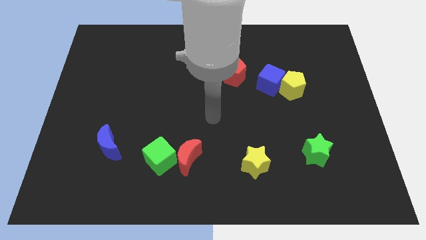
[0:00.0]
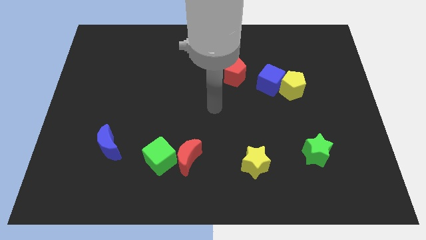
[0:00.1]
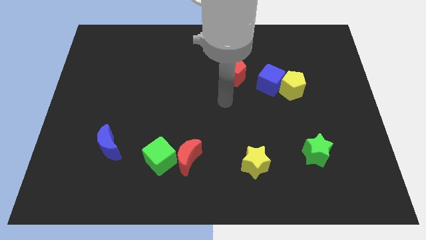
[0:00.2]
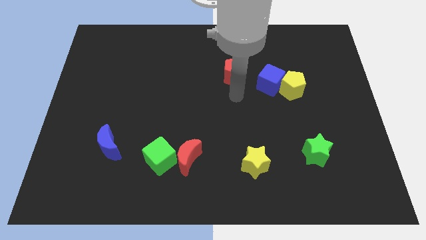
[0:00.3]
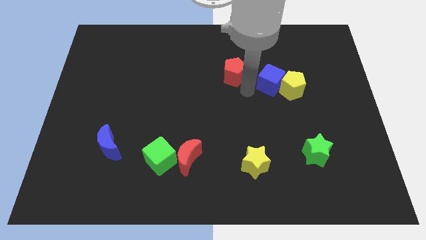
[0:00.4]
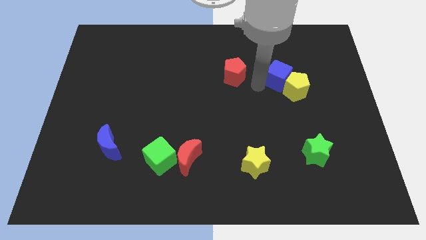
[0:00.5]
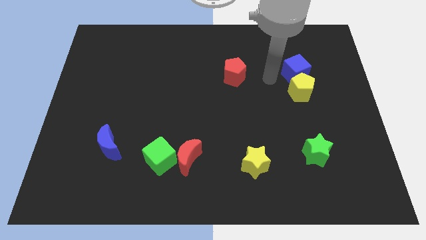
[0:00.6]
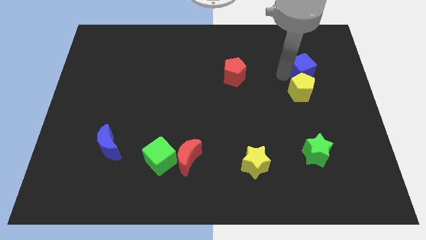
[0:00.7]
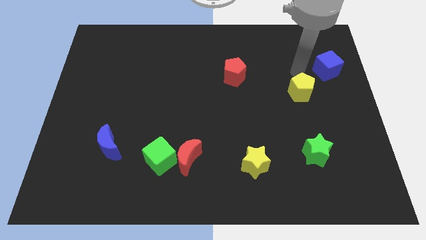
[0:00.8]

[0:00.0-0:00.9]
separate the yellow pentagon from the blue cube

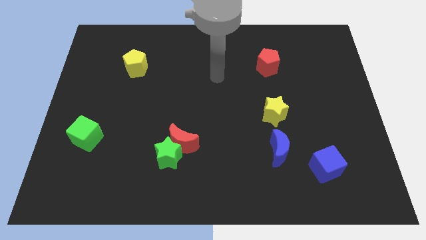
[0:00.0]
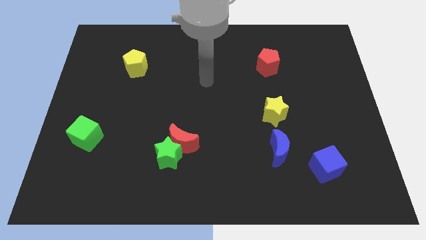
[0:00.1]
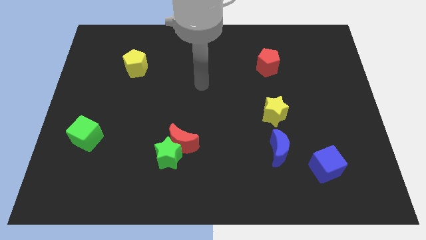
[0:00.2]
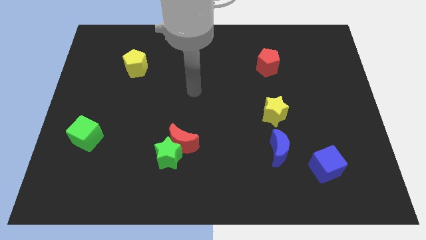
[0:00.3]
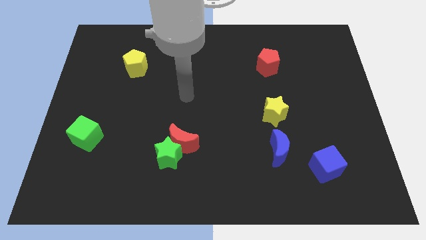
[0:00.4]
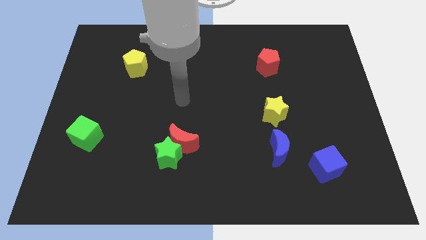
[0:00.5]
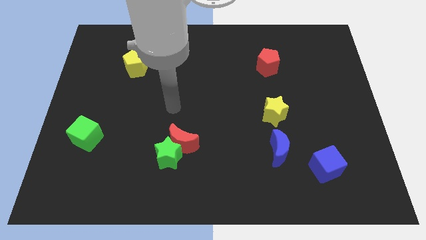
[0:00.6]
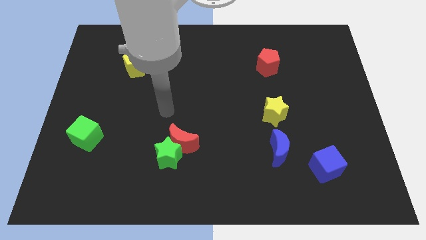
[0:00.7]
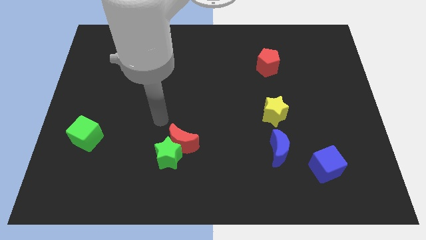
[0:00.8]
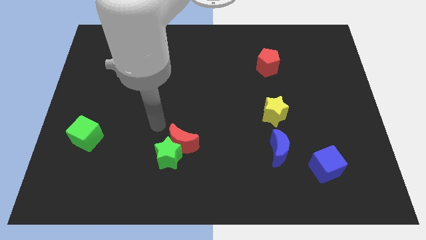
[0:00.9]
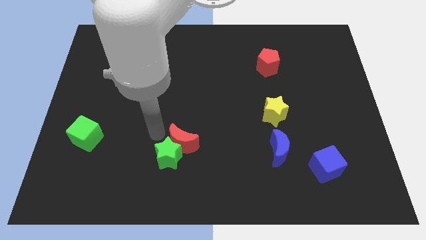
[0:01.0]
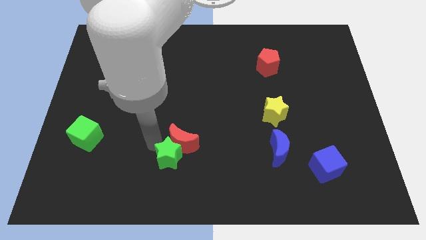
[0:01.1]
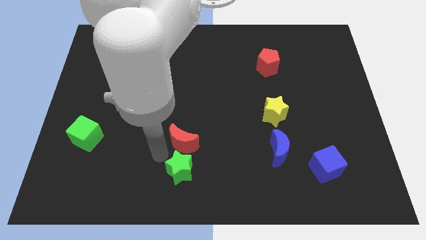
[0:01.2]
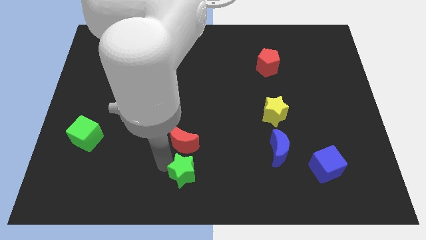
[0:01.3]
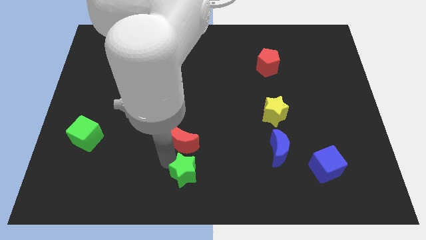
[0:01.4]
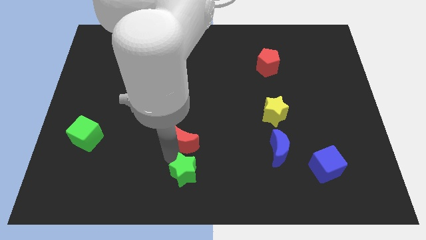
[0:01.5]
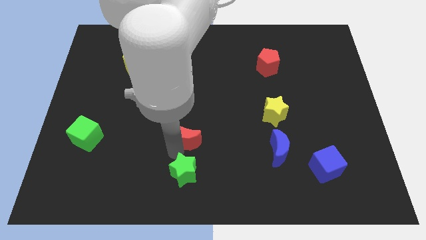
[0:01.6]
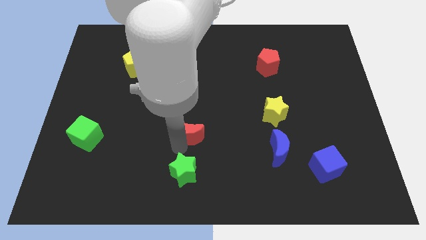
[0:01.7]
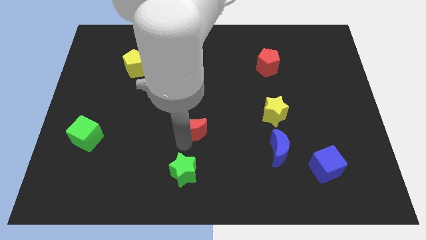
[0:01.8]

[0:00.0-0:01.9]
pull the red moon apart from the green star

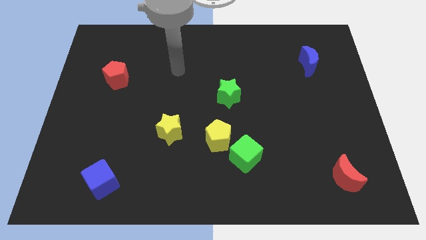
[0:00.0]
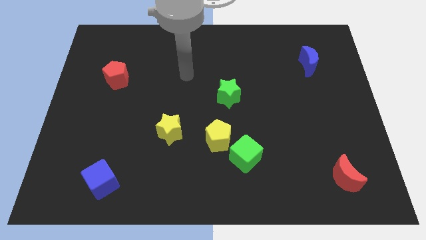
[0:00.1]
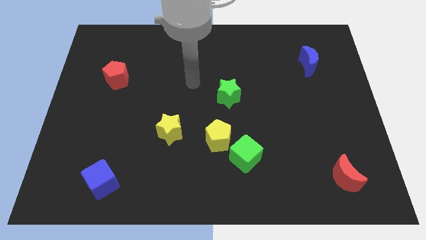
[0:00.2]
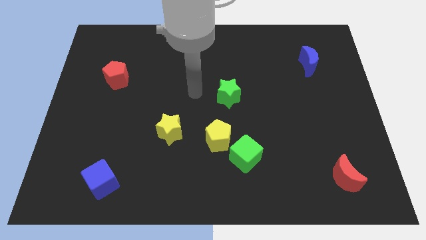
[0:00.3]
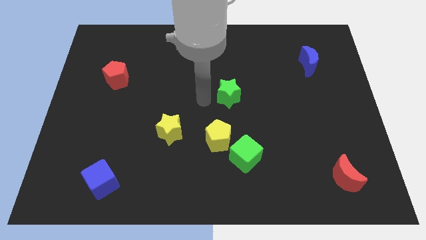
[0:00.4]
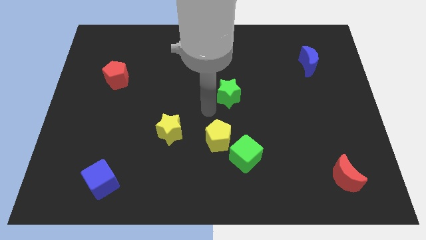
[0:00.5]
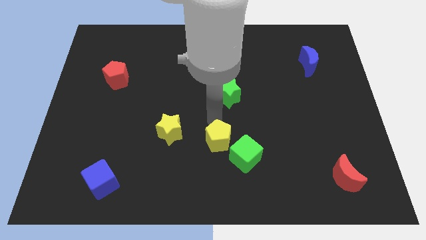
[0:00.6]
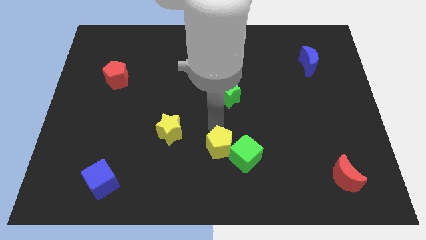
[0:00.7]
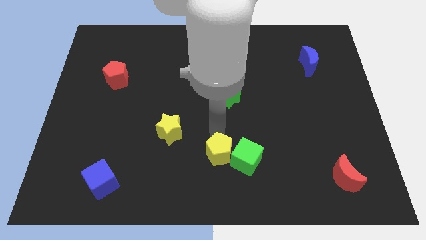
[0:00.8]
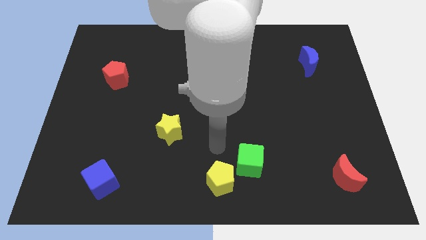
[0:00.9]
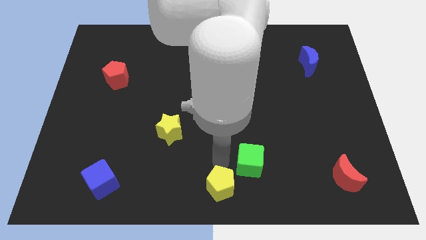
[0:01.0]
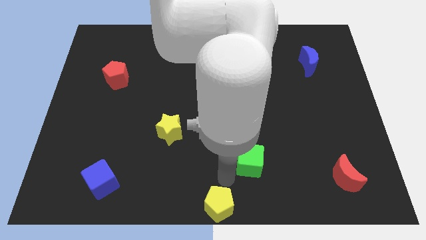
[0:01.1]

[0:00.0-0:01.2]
pull the green cube apart from the yellow pentagon

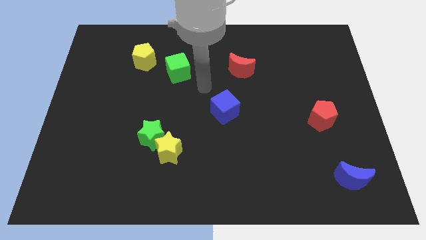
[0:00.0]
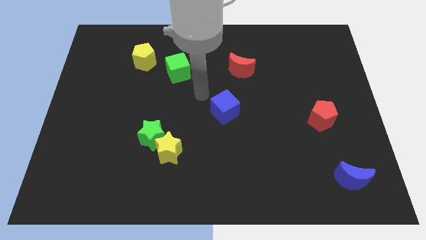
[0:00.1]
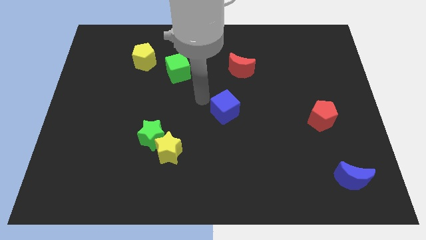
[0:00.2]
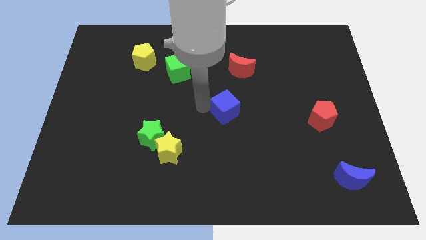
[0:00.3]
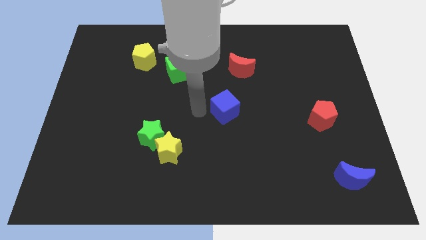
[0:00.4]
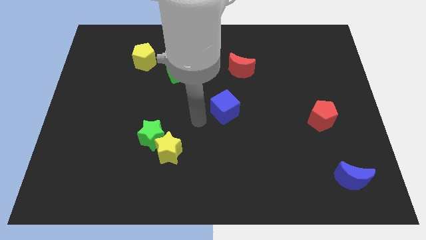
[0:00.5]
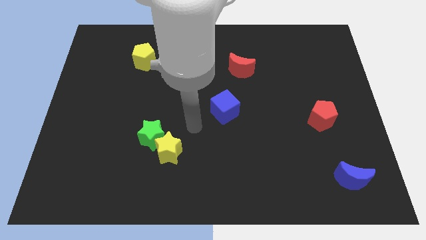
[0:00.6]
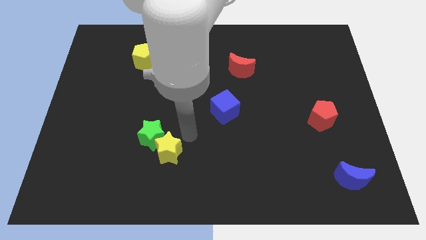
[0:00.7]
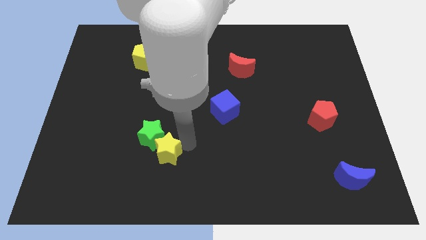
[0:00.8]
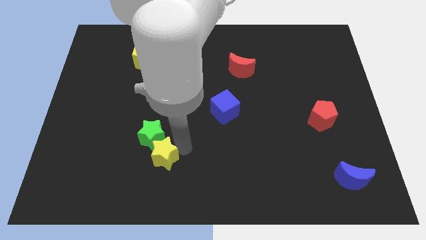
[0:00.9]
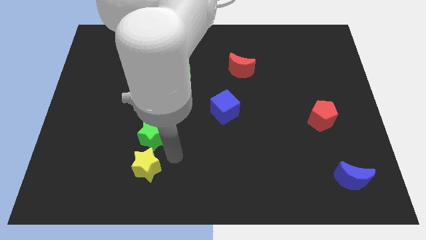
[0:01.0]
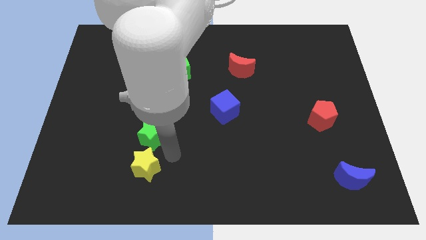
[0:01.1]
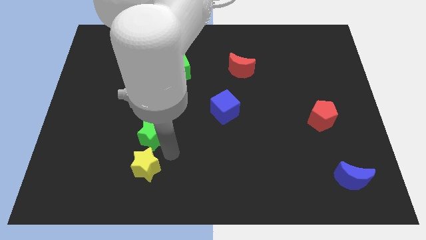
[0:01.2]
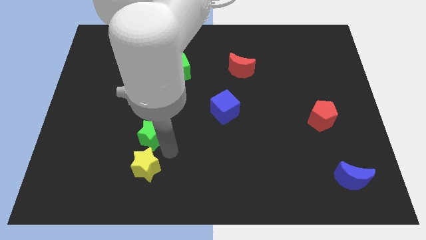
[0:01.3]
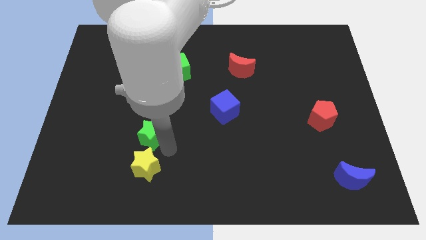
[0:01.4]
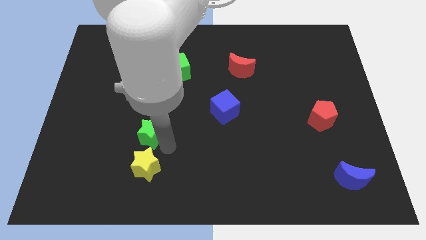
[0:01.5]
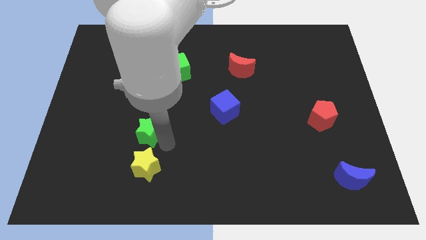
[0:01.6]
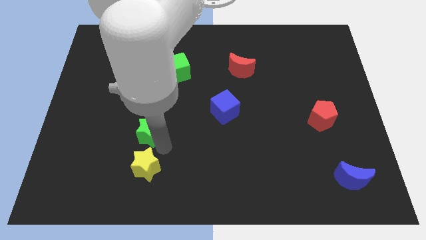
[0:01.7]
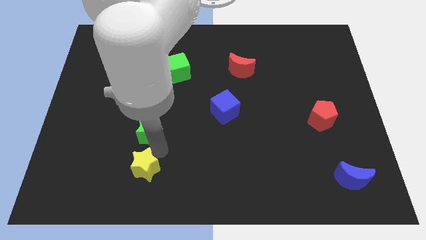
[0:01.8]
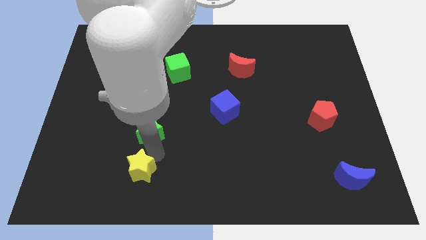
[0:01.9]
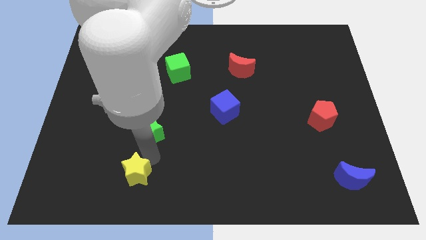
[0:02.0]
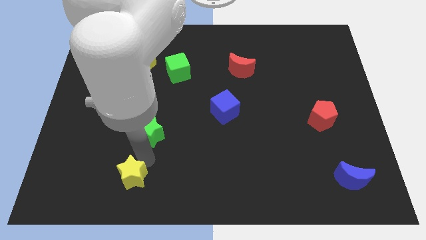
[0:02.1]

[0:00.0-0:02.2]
pull the green star apart from the yellow star

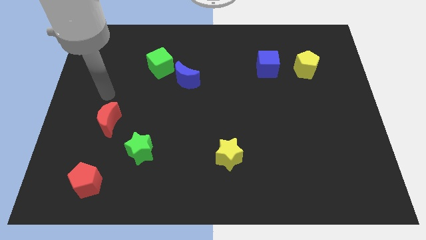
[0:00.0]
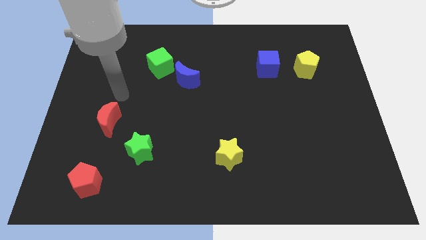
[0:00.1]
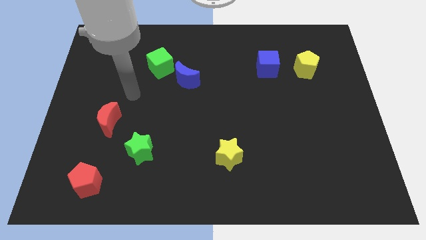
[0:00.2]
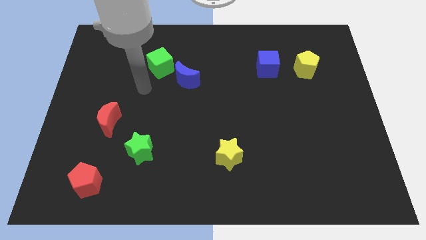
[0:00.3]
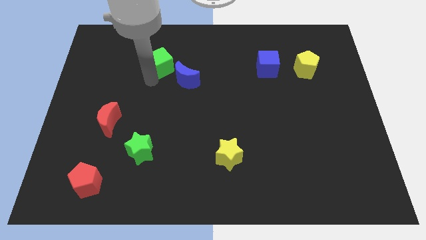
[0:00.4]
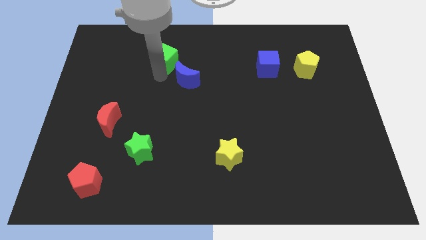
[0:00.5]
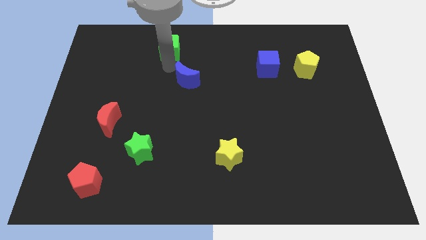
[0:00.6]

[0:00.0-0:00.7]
separate the blue moon from the green cube

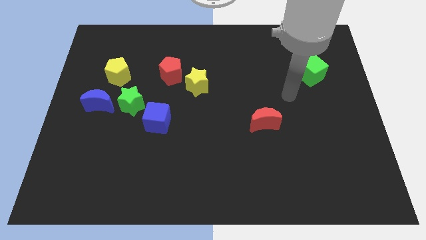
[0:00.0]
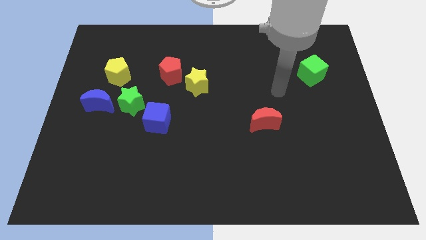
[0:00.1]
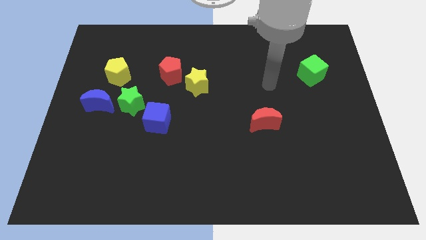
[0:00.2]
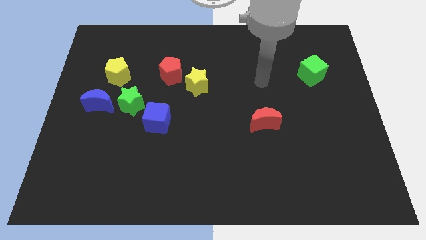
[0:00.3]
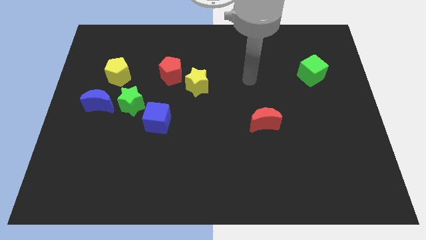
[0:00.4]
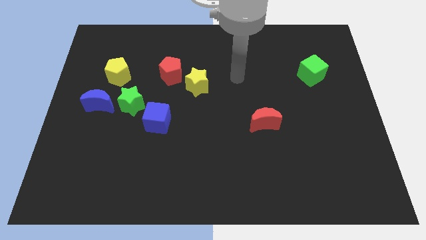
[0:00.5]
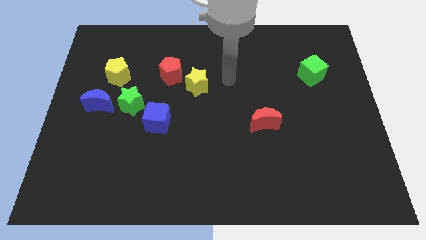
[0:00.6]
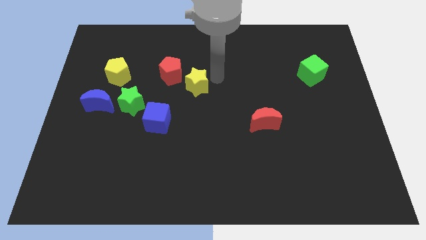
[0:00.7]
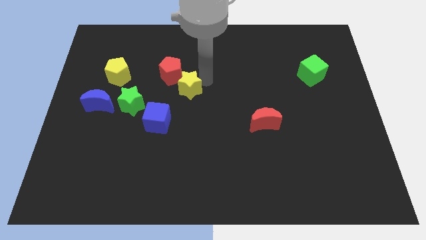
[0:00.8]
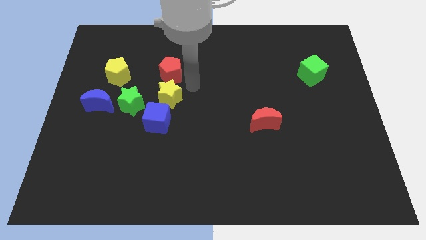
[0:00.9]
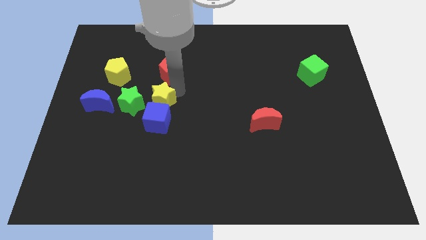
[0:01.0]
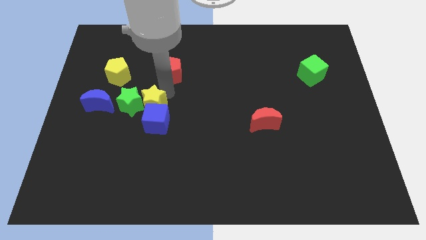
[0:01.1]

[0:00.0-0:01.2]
move the red pentagon away from the yellow star

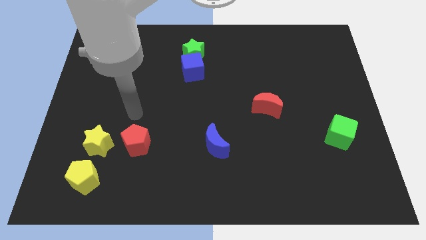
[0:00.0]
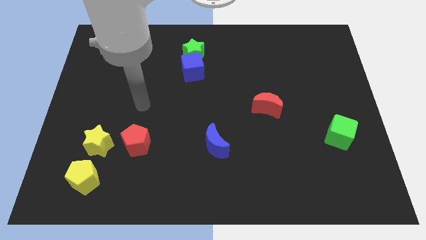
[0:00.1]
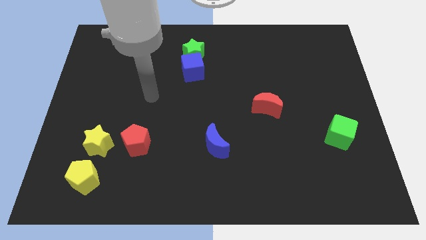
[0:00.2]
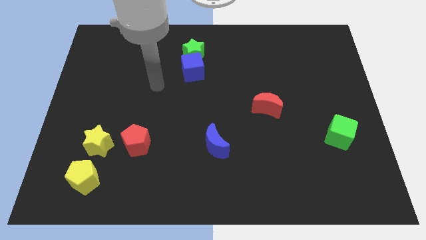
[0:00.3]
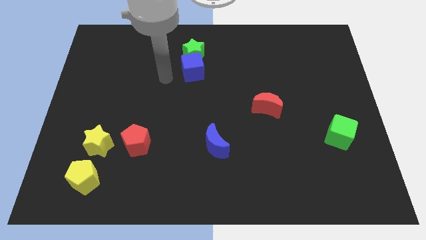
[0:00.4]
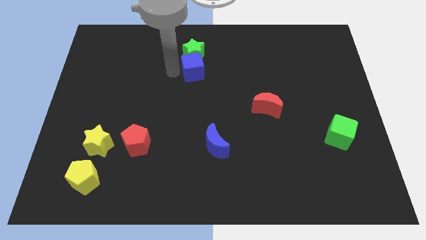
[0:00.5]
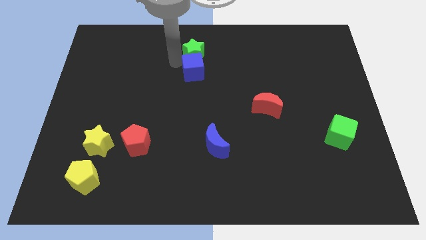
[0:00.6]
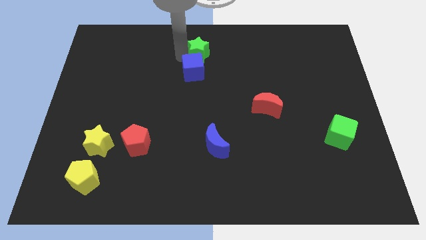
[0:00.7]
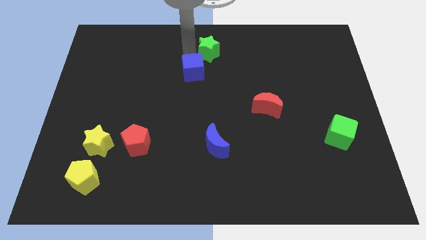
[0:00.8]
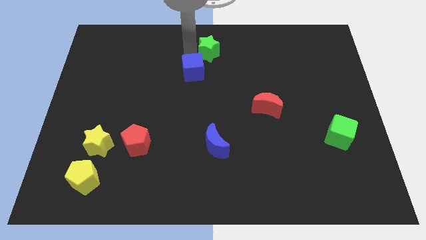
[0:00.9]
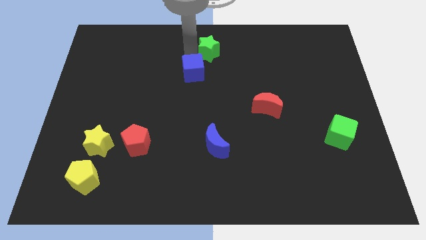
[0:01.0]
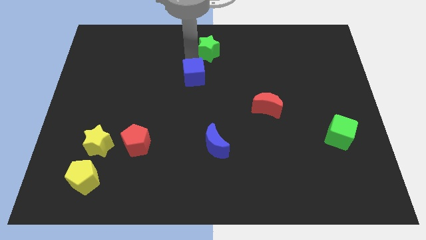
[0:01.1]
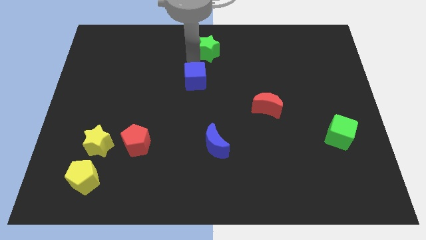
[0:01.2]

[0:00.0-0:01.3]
separate the blue cube from the green star

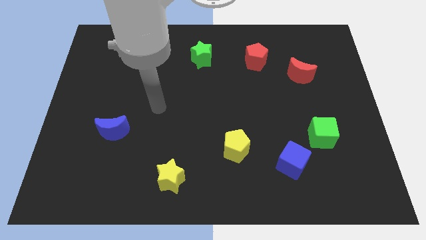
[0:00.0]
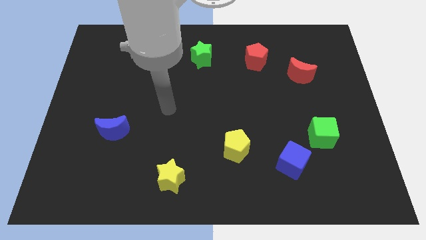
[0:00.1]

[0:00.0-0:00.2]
pull the blue cube apart from the green cube
